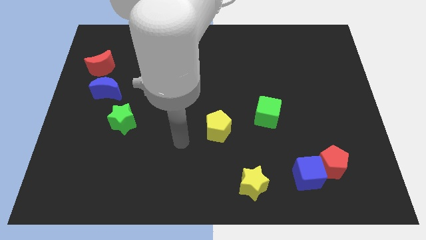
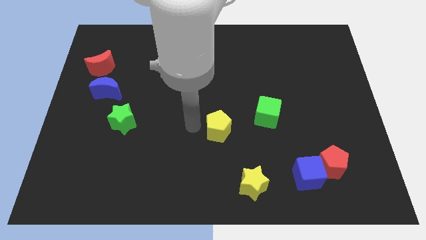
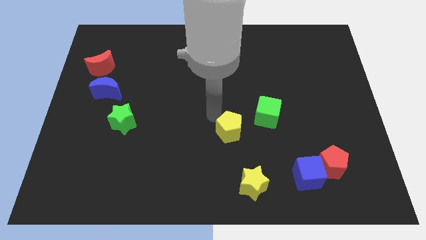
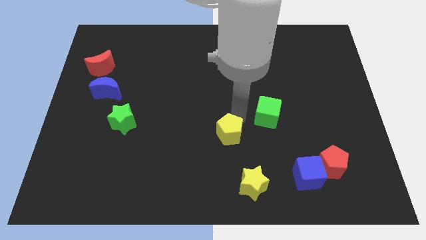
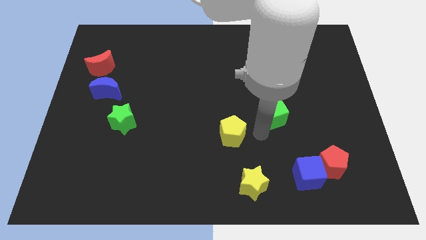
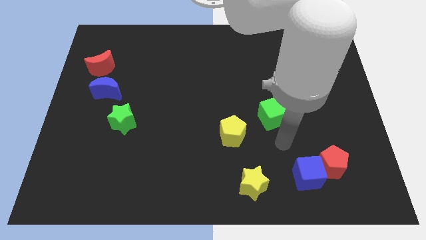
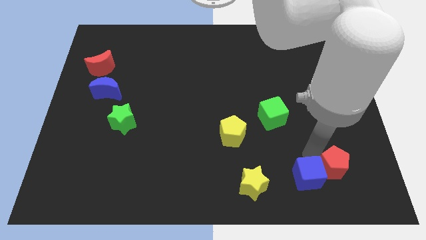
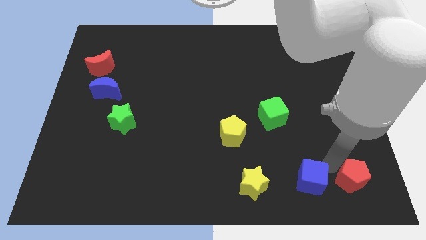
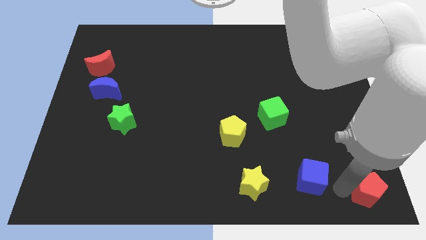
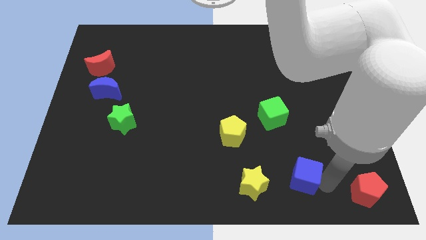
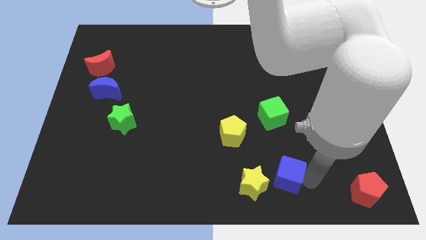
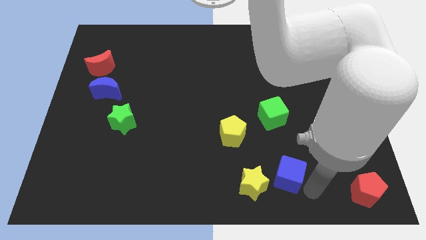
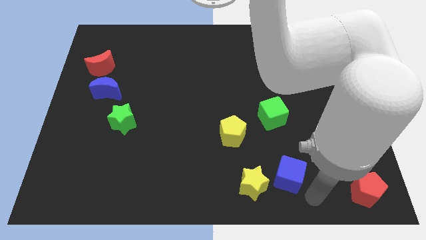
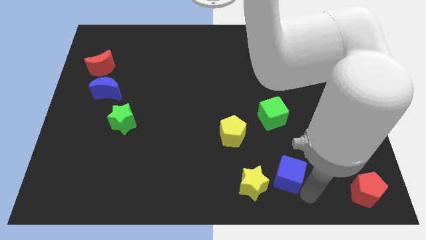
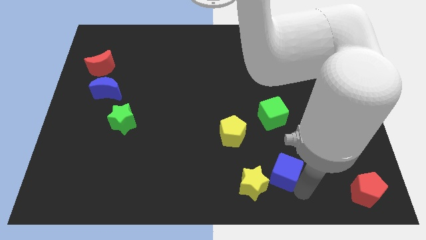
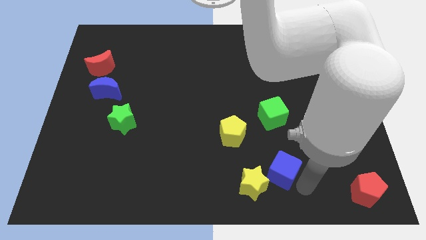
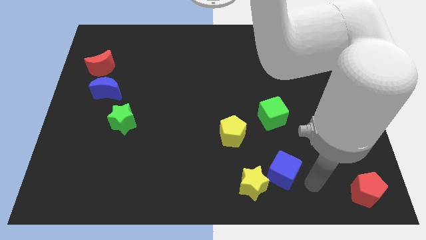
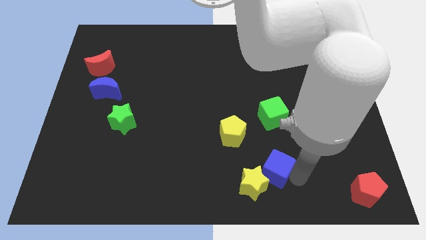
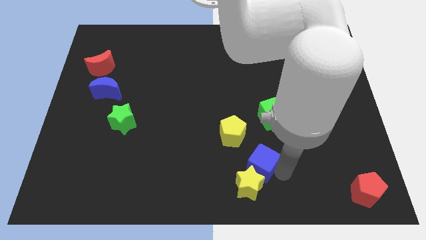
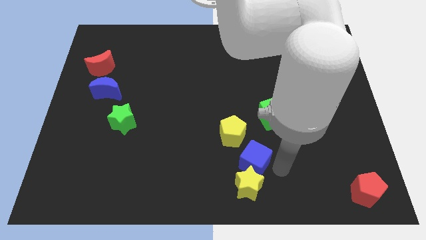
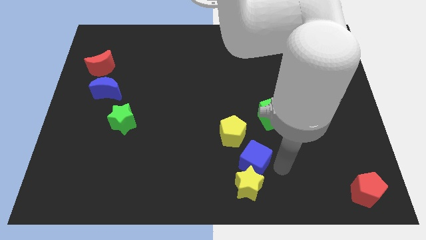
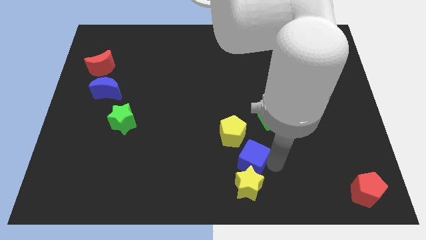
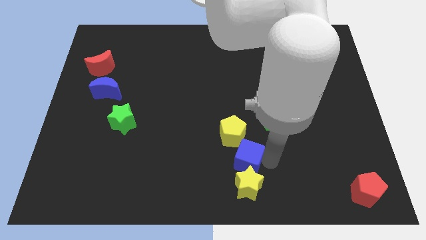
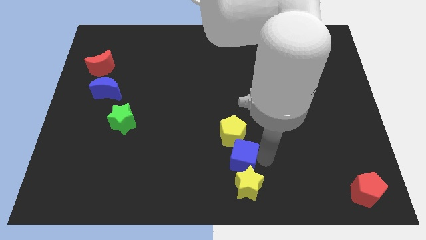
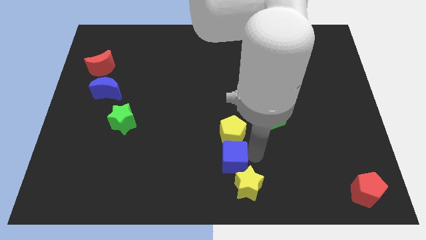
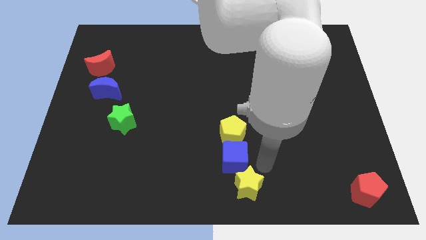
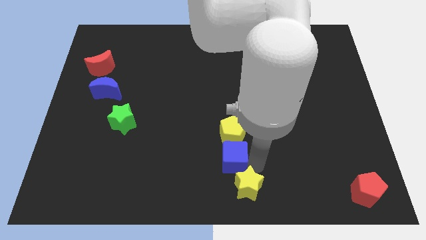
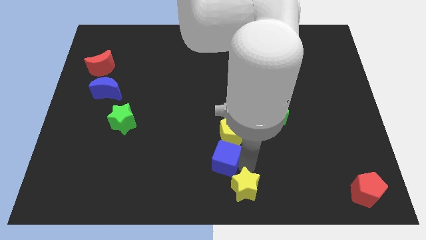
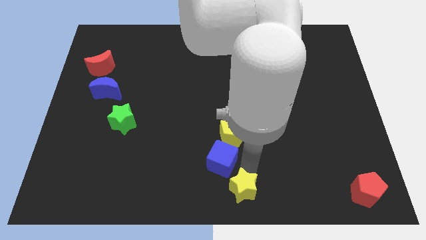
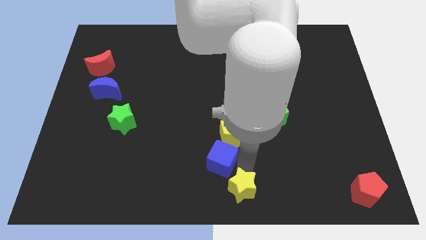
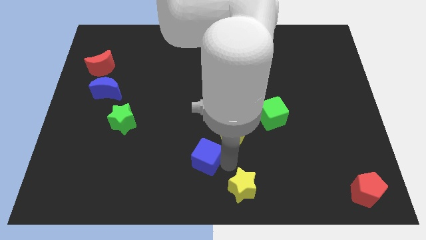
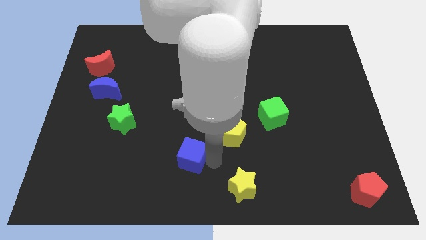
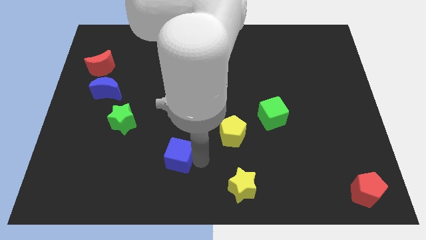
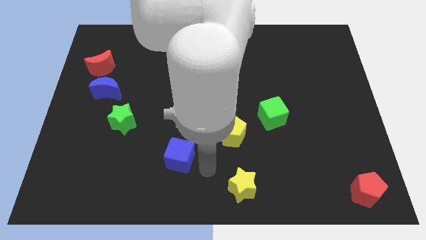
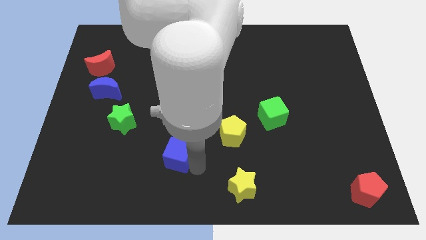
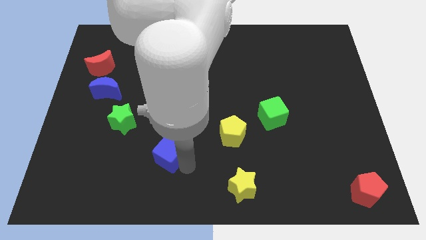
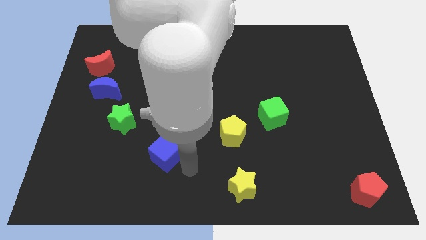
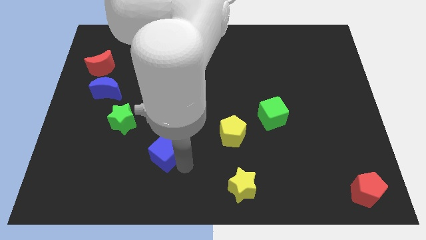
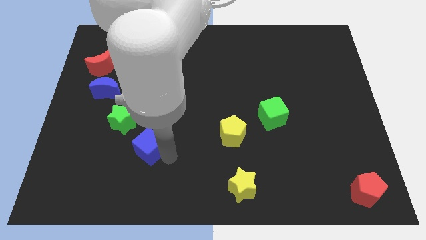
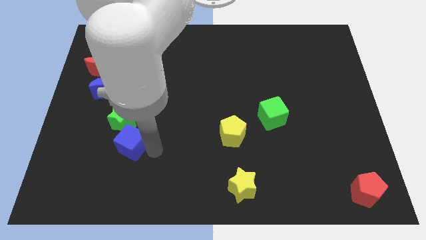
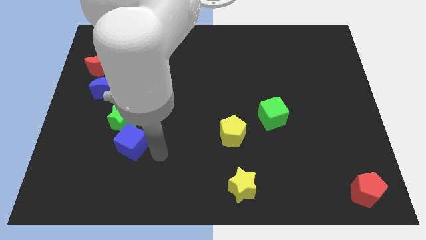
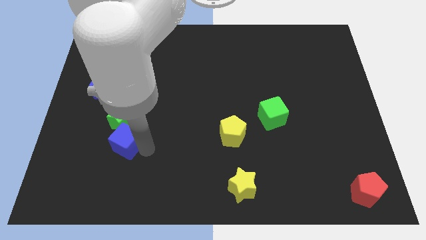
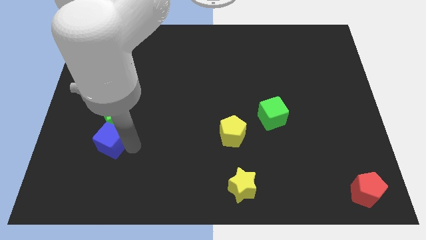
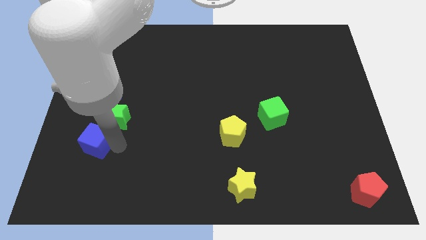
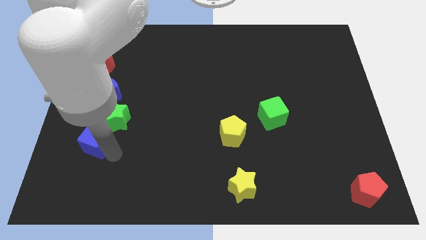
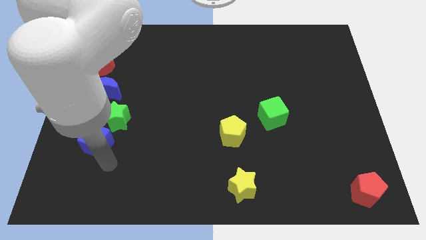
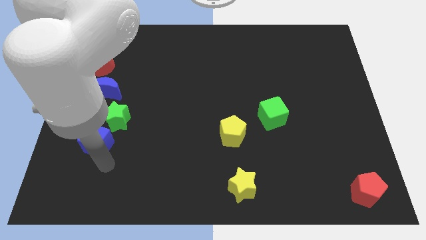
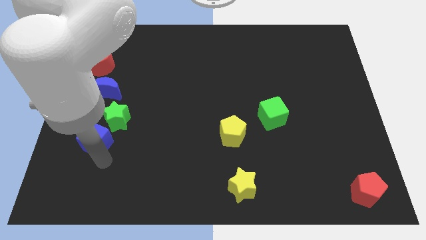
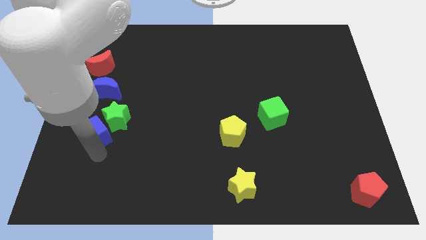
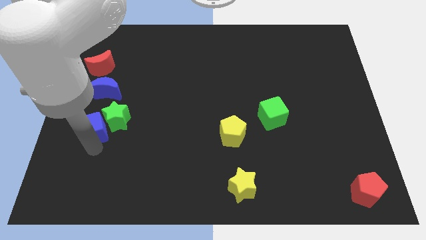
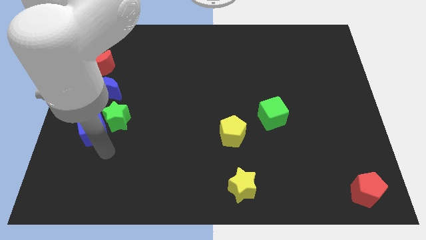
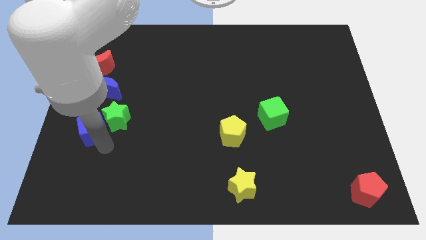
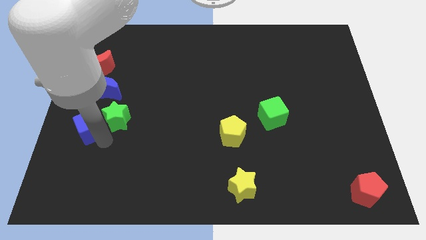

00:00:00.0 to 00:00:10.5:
slide the blue cube to the left side of the board

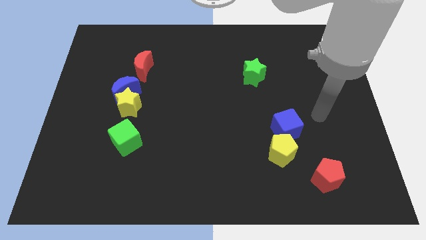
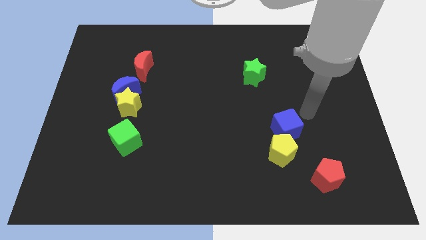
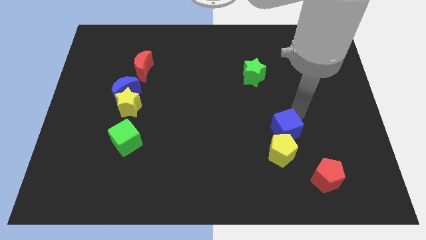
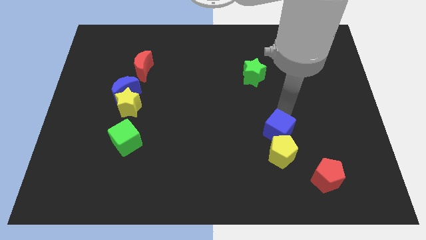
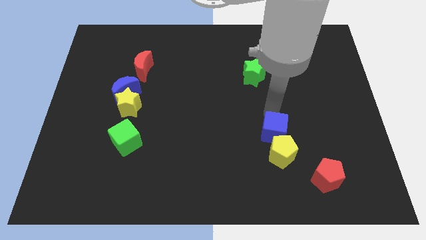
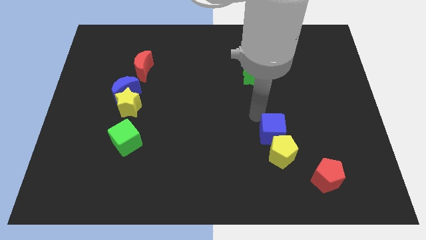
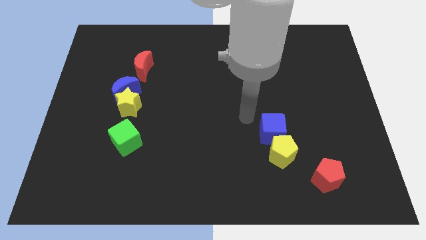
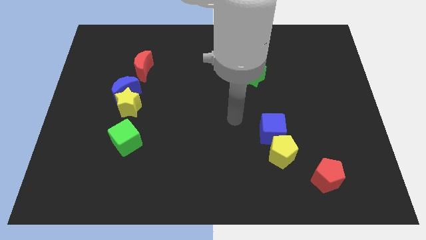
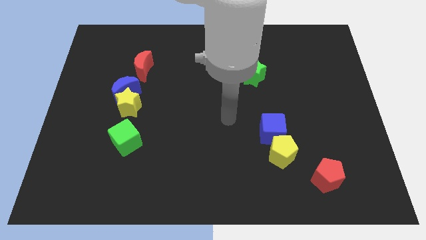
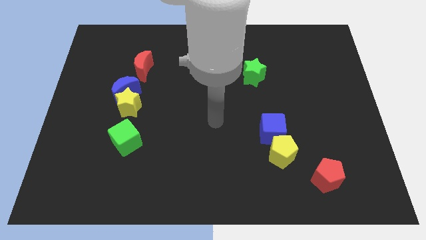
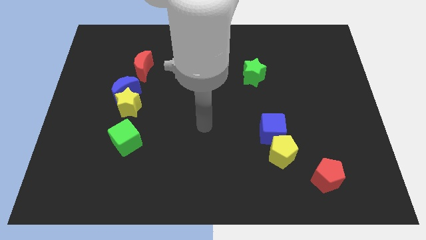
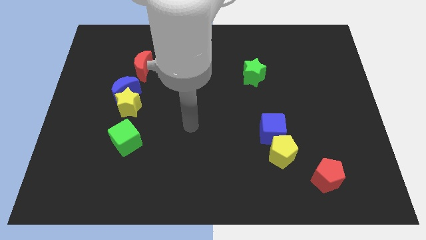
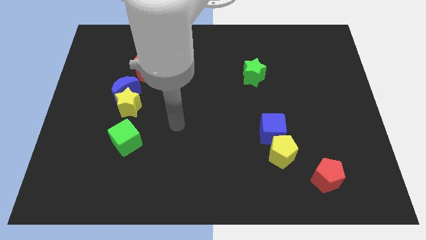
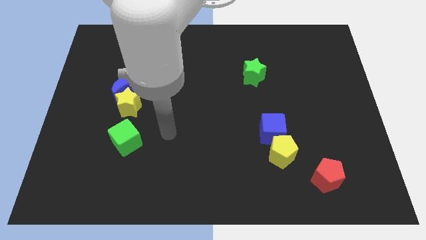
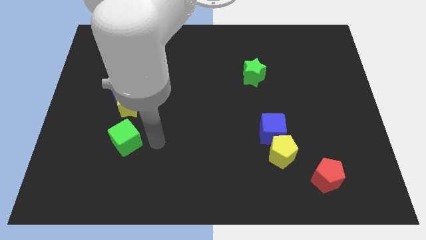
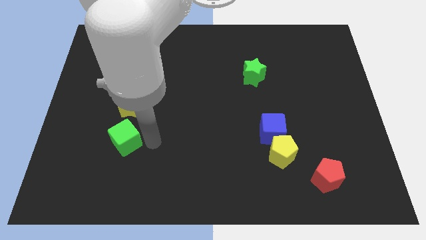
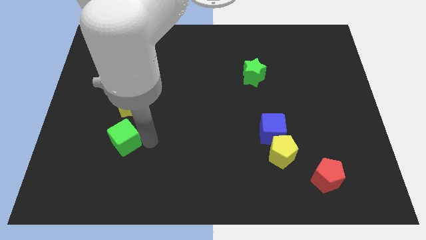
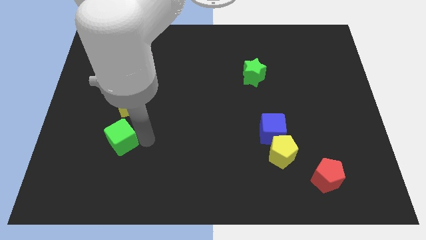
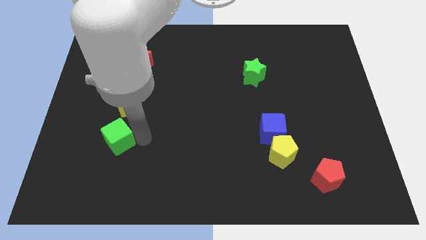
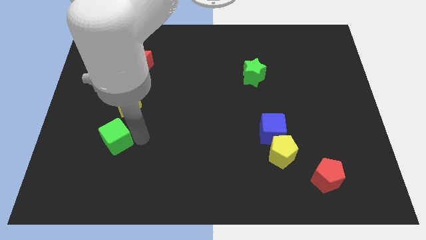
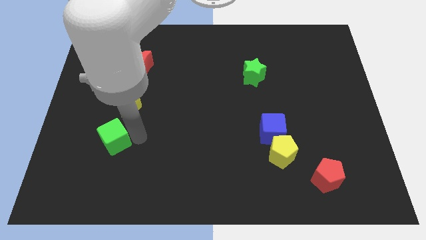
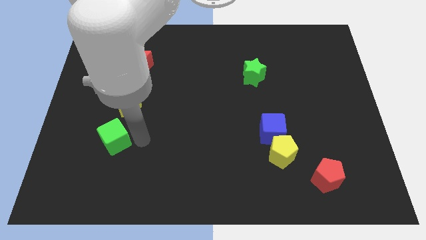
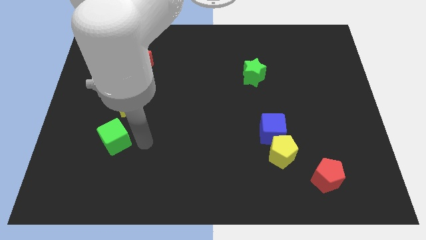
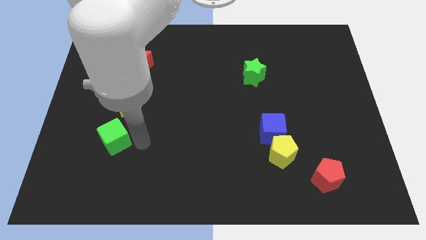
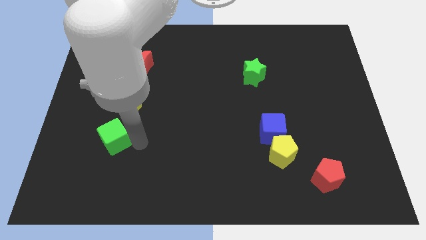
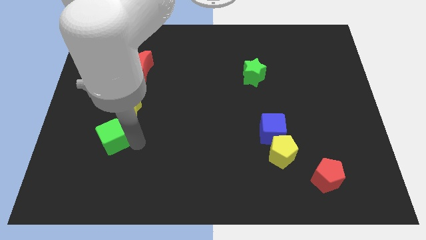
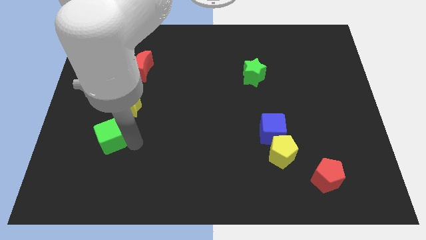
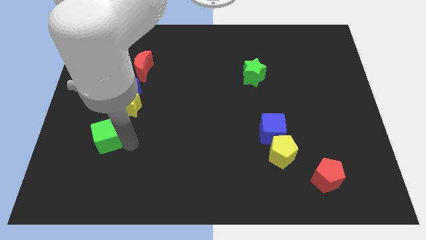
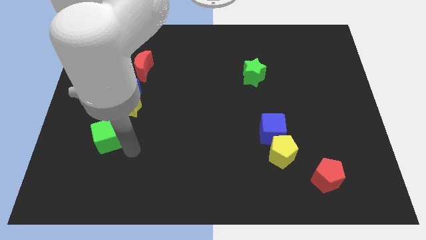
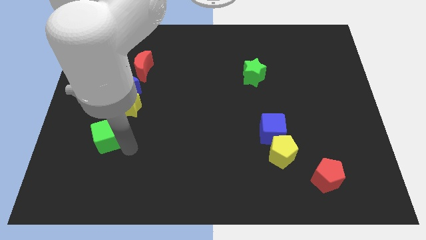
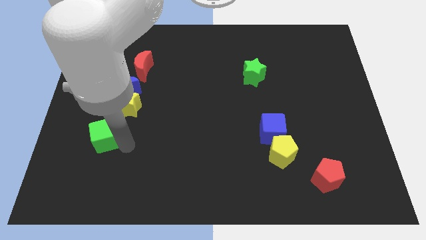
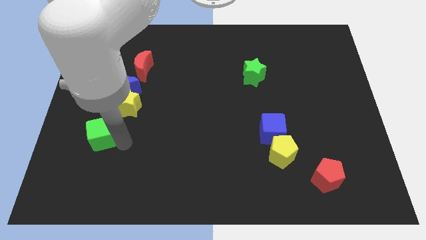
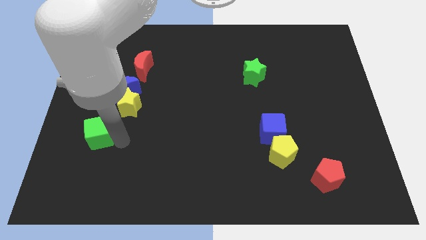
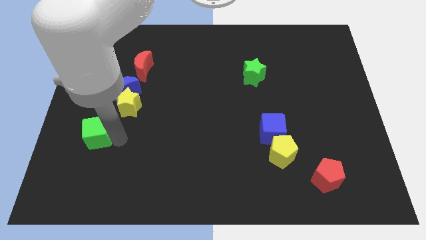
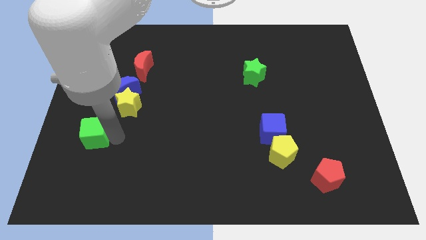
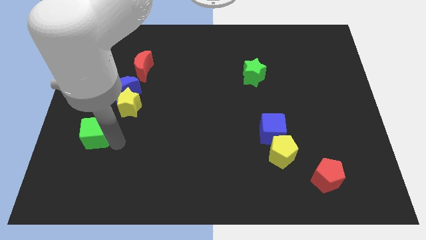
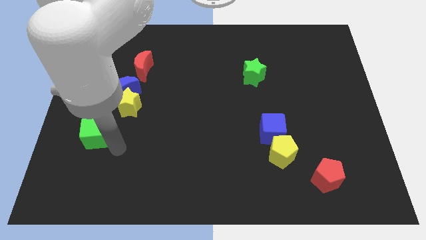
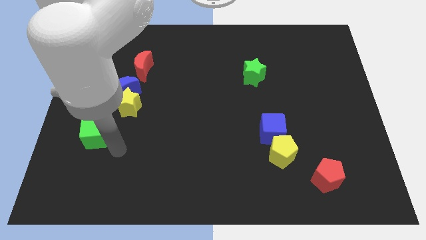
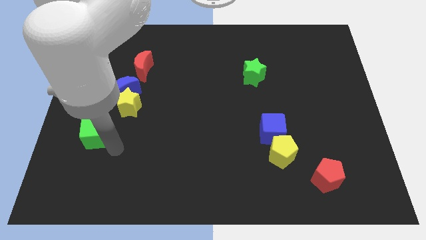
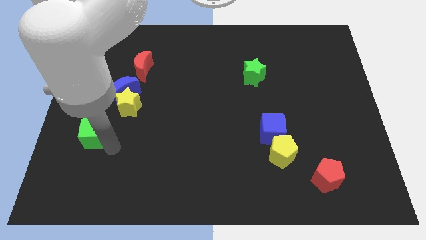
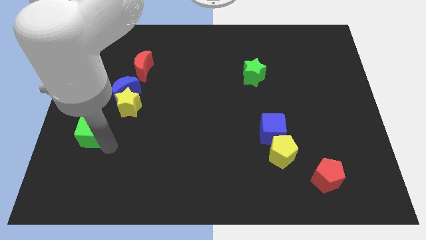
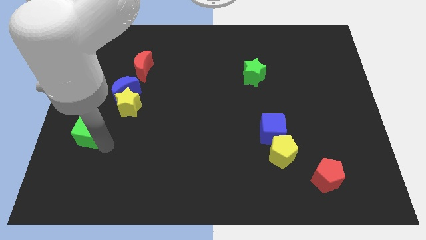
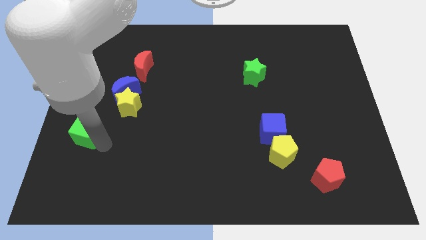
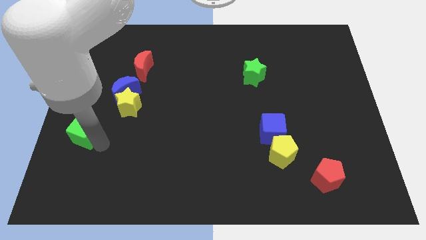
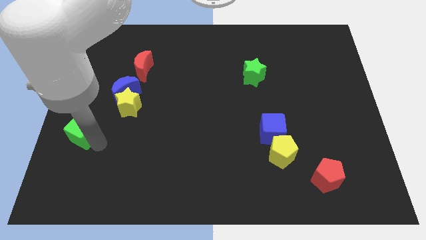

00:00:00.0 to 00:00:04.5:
push the green cube to the left side of the board
